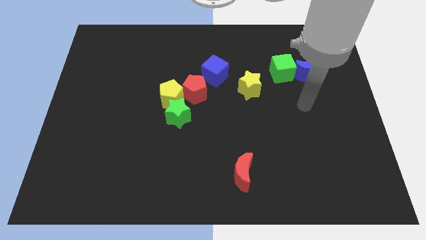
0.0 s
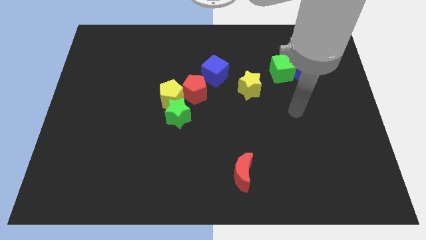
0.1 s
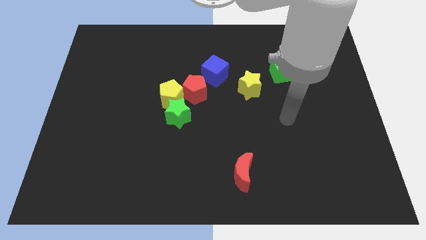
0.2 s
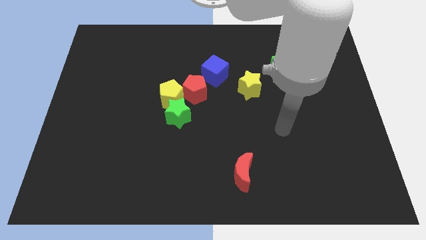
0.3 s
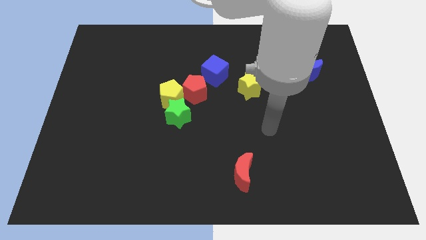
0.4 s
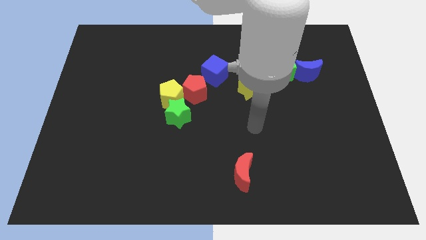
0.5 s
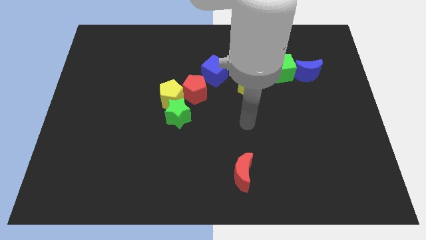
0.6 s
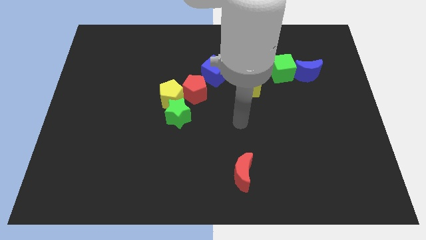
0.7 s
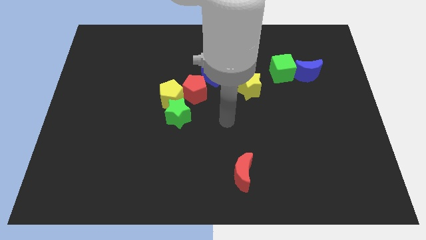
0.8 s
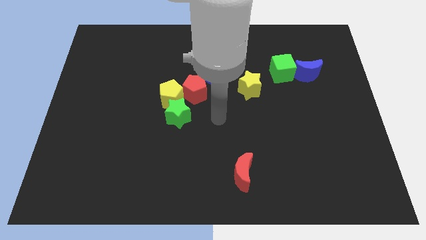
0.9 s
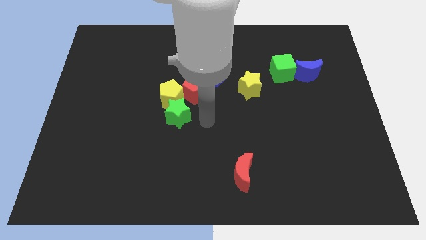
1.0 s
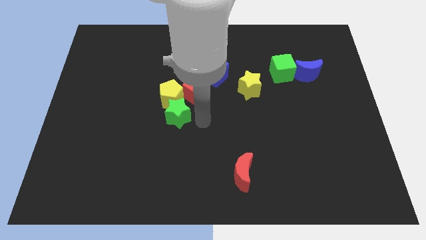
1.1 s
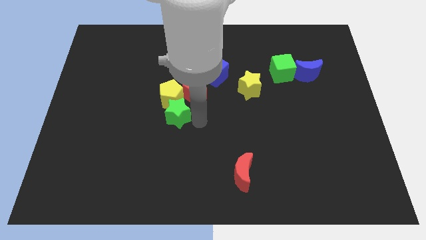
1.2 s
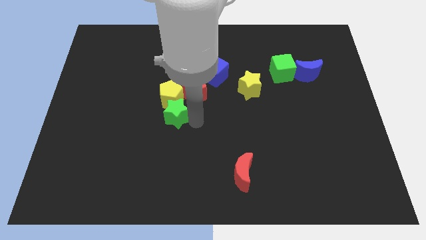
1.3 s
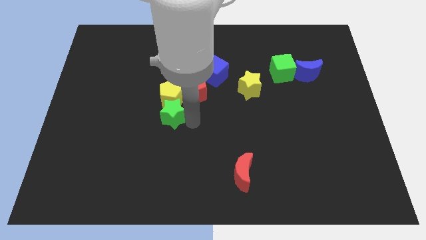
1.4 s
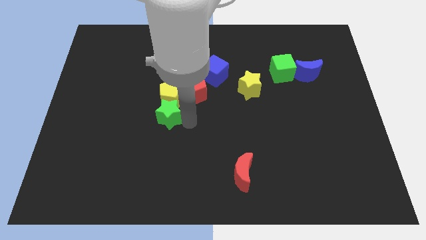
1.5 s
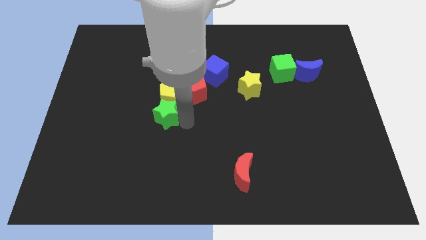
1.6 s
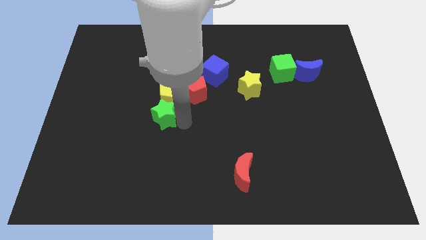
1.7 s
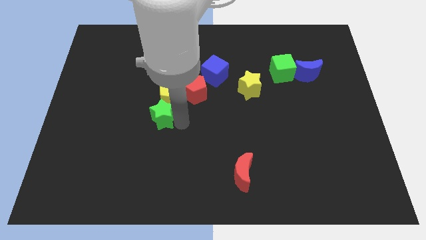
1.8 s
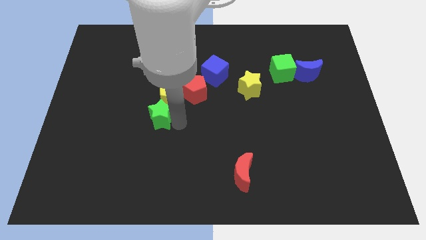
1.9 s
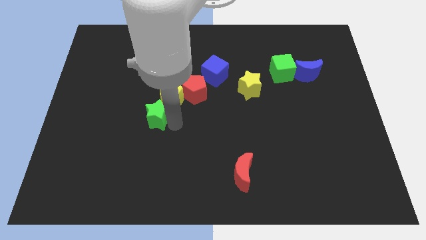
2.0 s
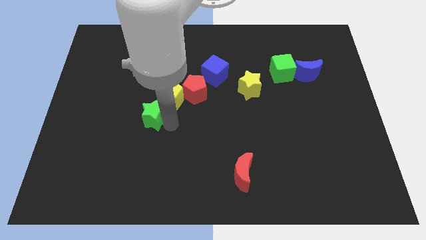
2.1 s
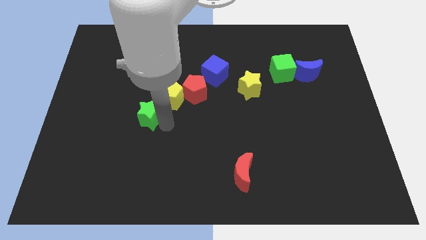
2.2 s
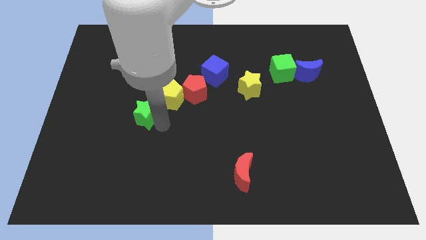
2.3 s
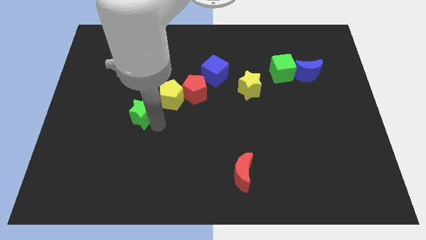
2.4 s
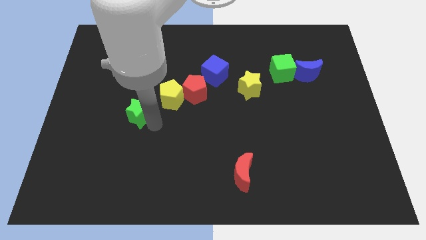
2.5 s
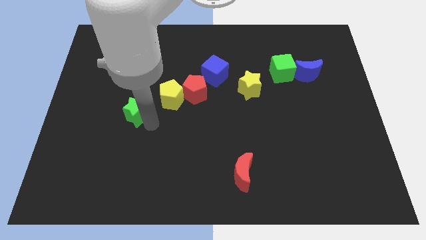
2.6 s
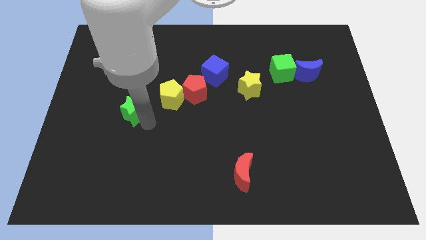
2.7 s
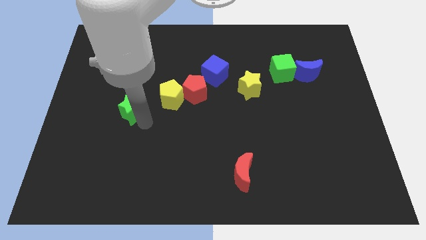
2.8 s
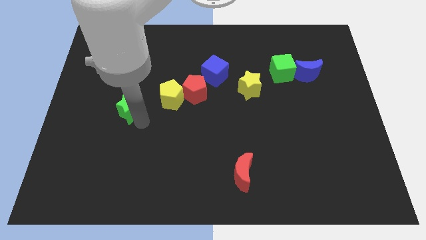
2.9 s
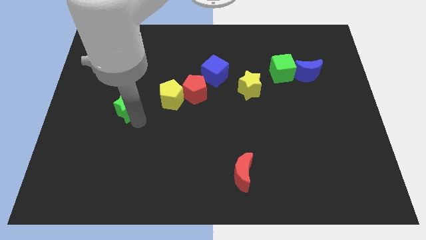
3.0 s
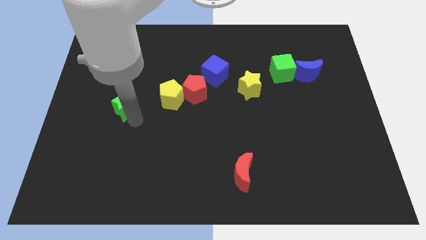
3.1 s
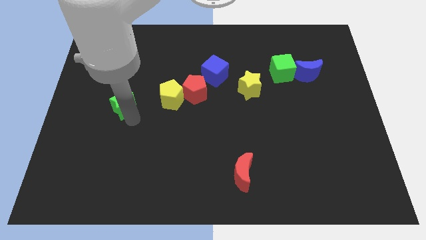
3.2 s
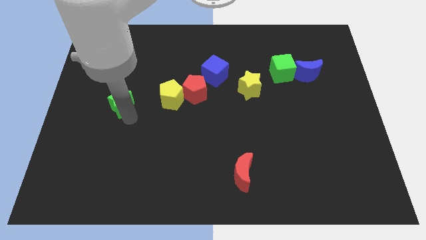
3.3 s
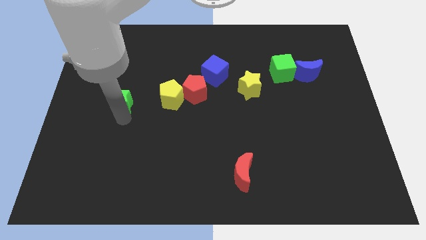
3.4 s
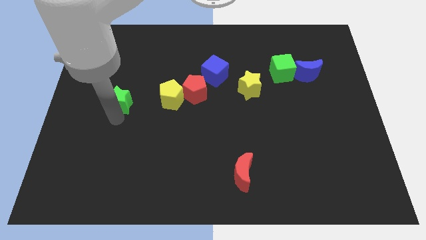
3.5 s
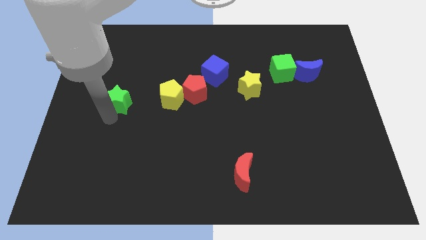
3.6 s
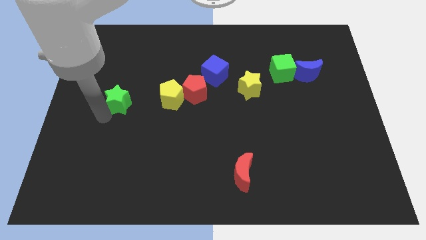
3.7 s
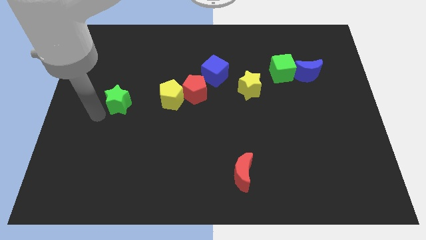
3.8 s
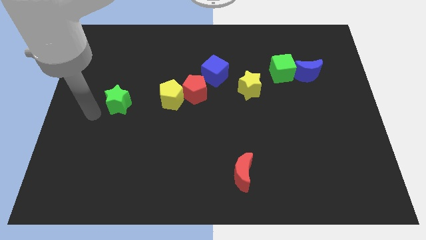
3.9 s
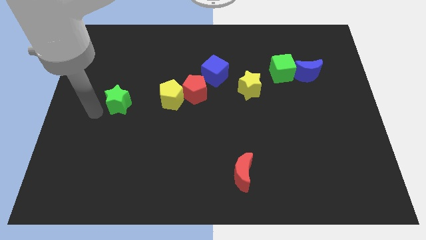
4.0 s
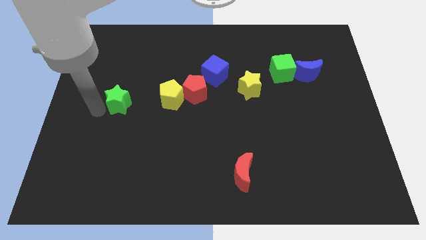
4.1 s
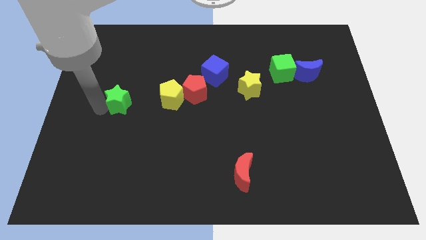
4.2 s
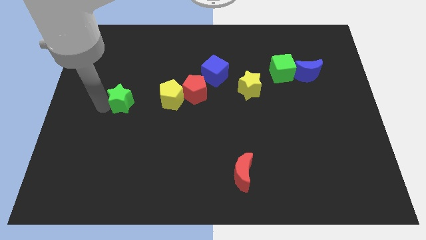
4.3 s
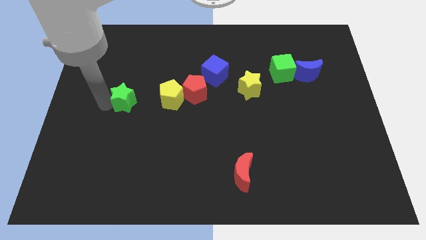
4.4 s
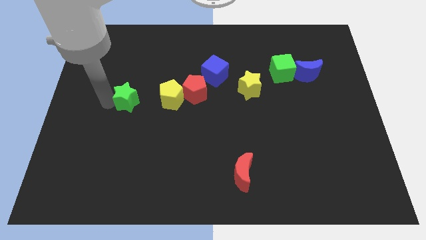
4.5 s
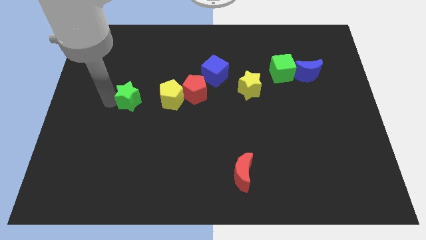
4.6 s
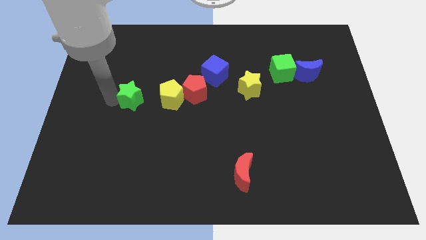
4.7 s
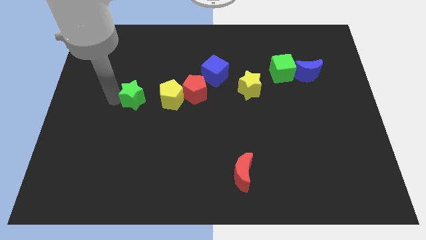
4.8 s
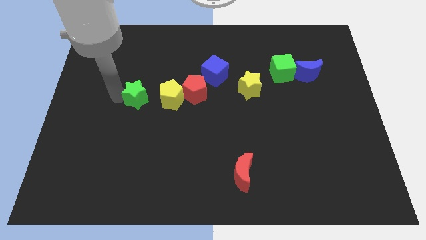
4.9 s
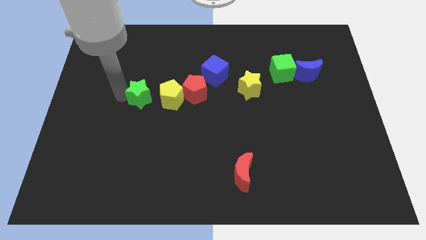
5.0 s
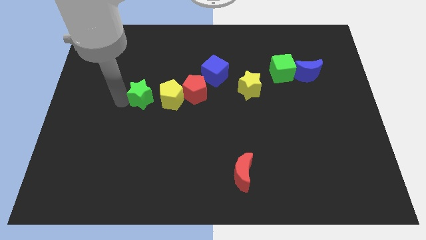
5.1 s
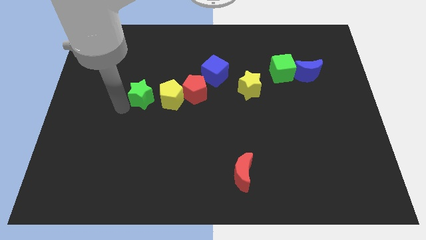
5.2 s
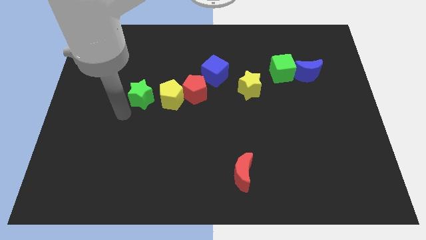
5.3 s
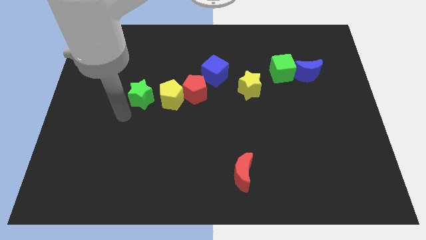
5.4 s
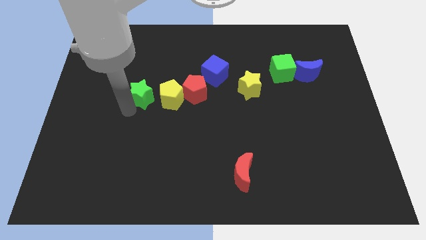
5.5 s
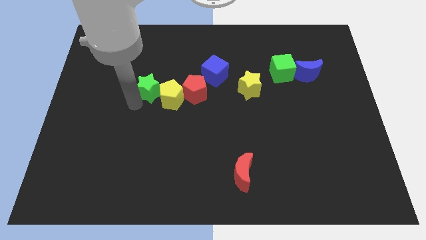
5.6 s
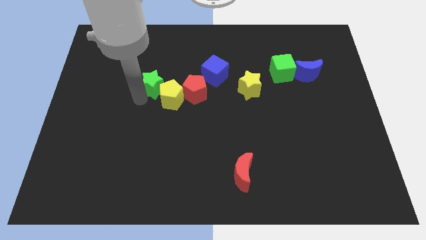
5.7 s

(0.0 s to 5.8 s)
push the green star a bit up

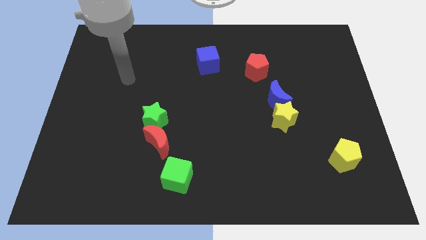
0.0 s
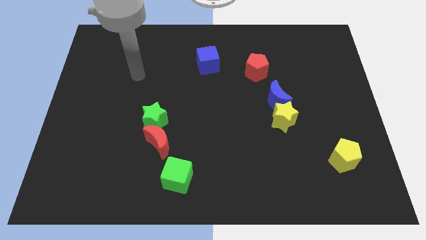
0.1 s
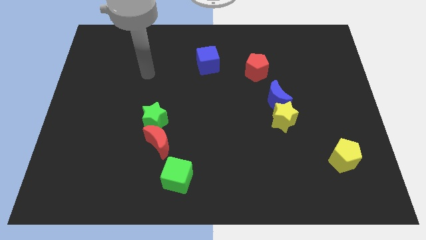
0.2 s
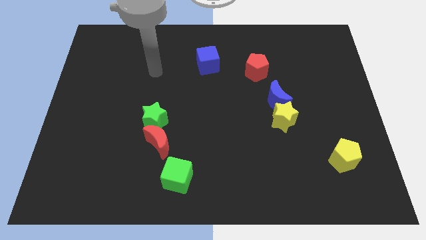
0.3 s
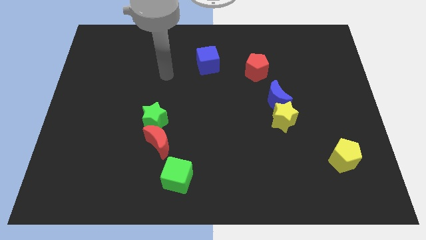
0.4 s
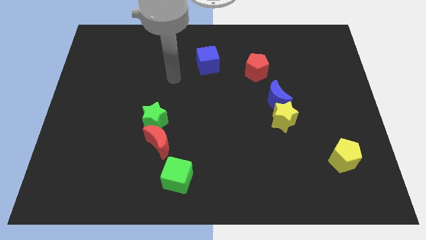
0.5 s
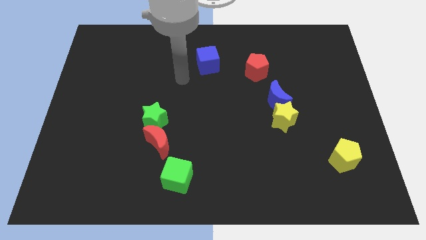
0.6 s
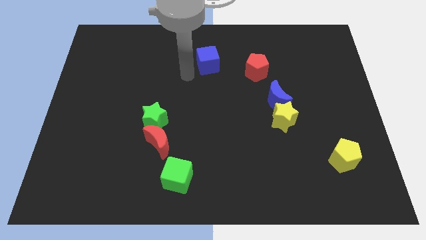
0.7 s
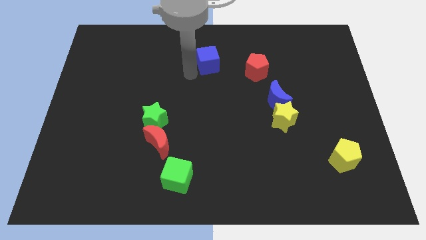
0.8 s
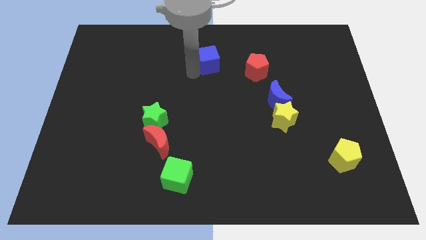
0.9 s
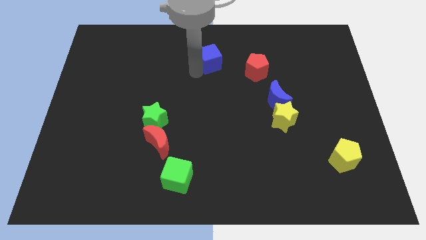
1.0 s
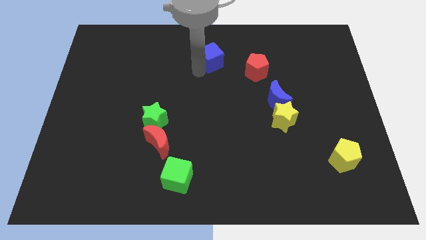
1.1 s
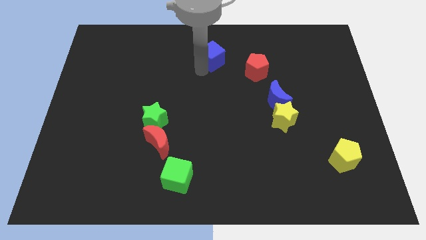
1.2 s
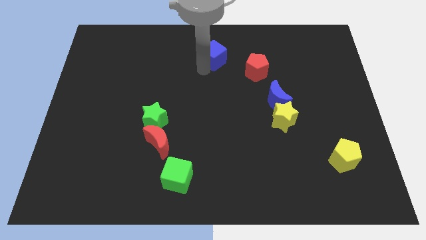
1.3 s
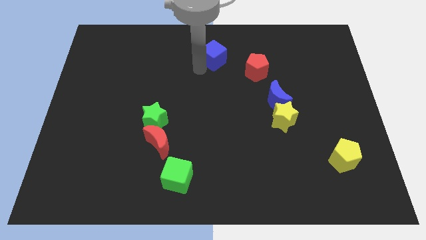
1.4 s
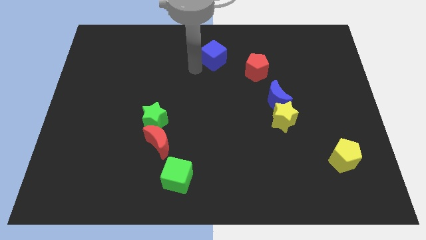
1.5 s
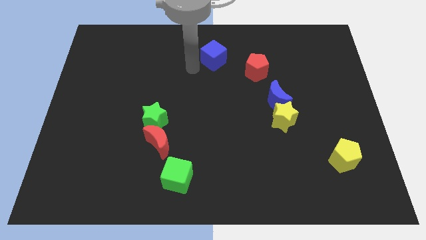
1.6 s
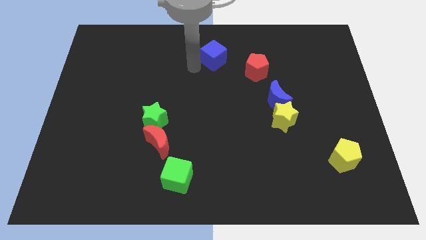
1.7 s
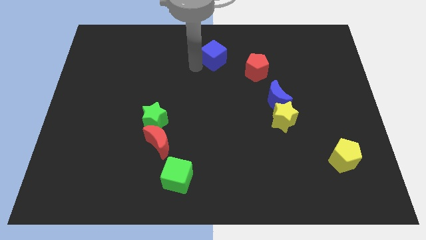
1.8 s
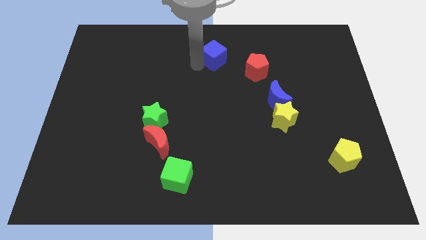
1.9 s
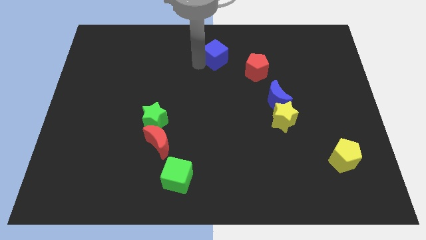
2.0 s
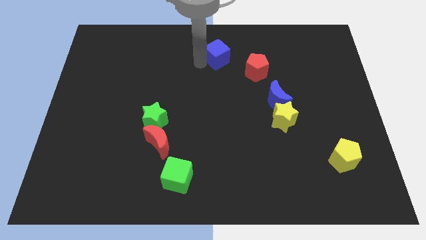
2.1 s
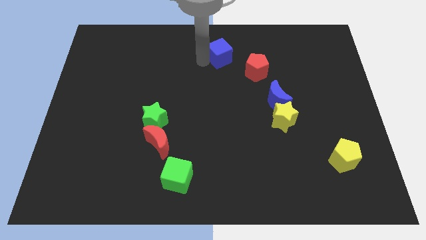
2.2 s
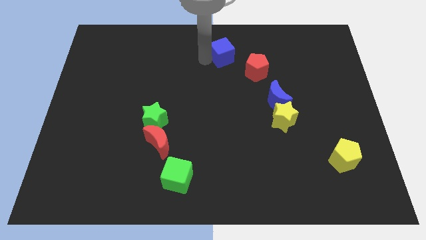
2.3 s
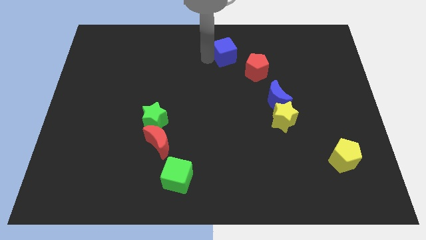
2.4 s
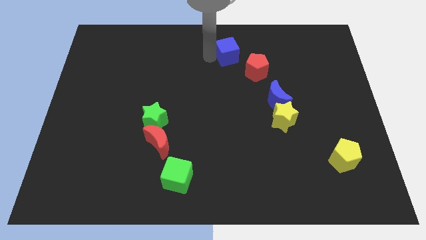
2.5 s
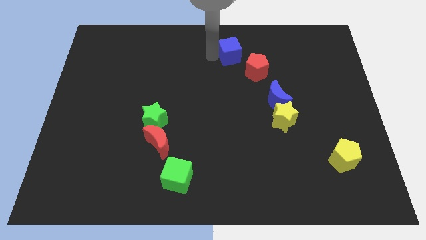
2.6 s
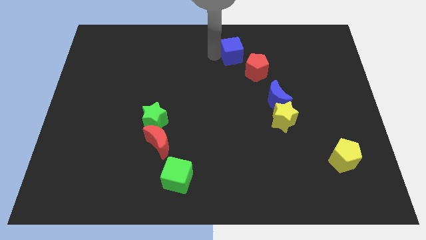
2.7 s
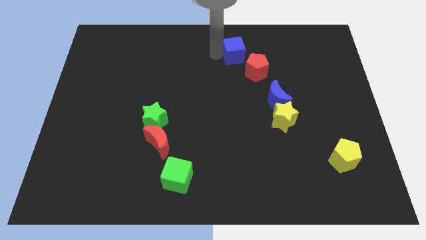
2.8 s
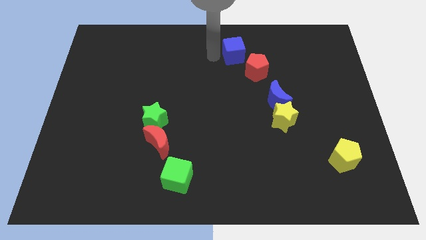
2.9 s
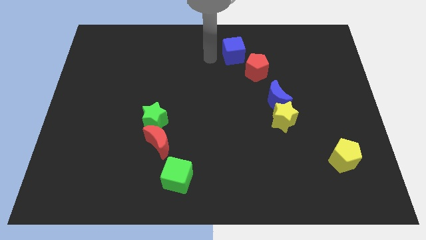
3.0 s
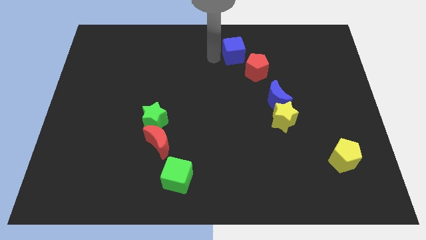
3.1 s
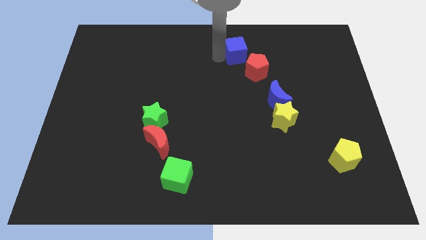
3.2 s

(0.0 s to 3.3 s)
slightly push the blue cube right
